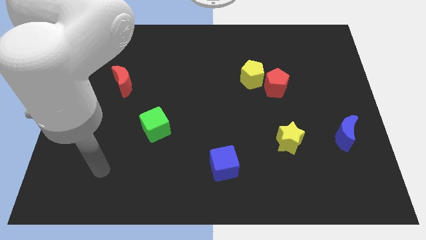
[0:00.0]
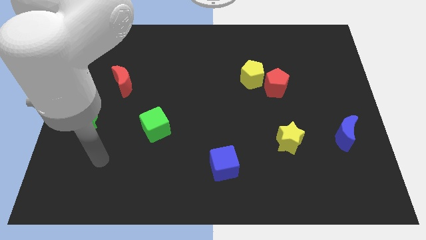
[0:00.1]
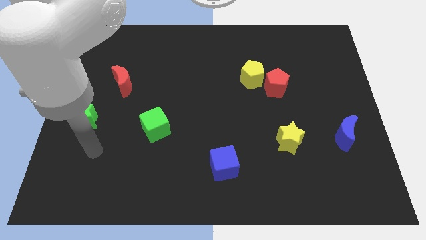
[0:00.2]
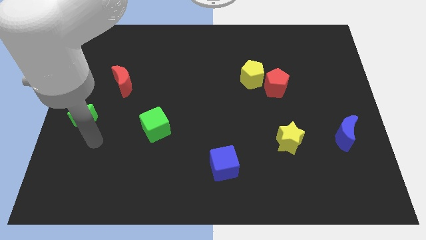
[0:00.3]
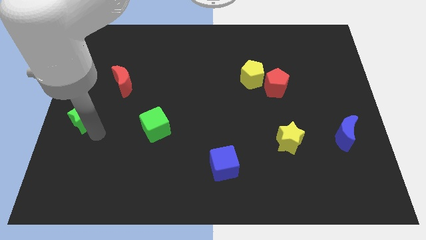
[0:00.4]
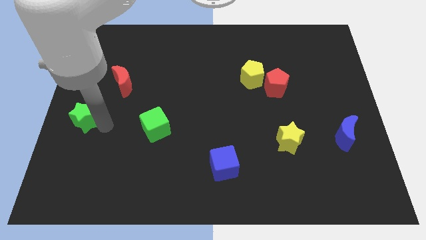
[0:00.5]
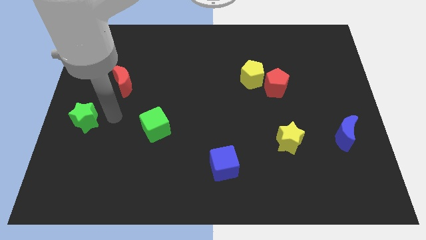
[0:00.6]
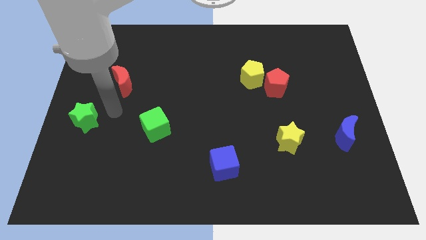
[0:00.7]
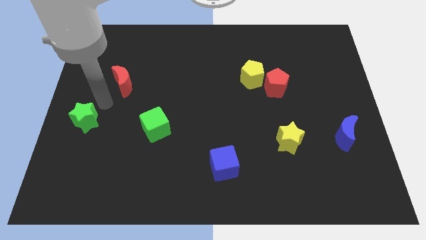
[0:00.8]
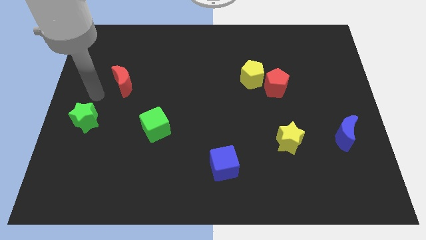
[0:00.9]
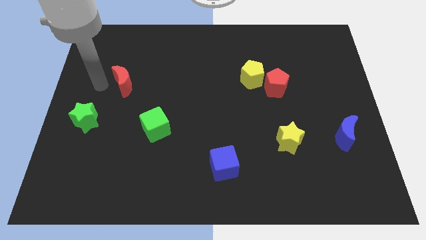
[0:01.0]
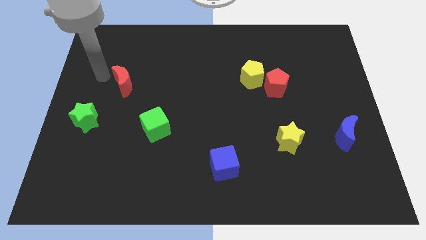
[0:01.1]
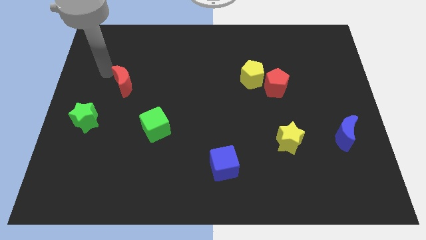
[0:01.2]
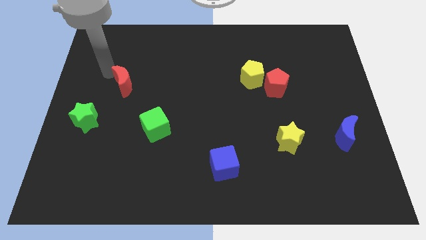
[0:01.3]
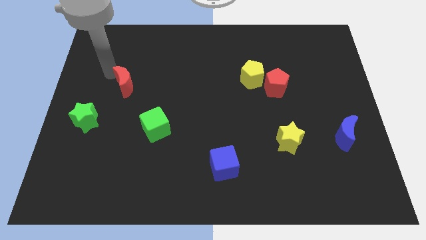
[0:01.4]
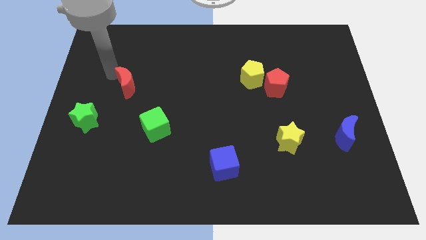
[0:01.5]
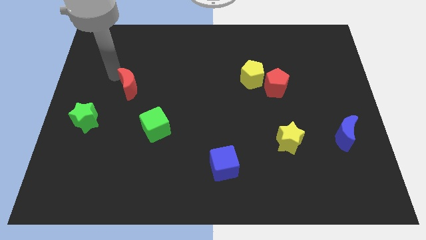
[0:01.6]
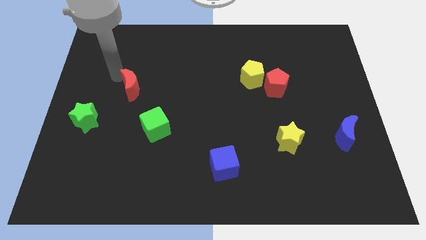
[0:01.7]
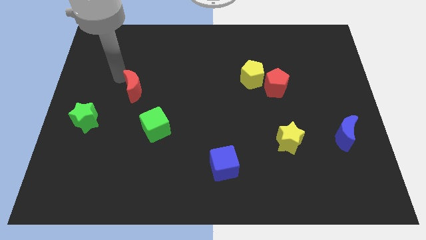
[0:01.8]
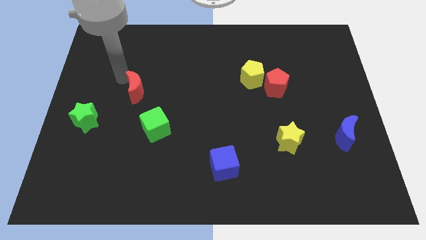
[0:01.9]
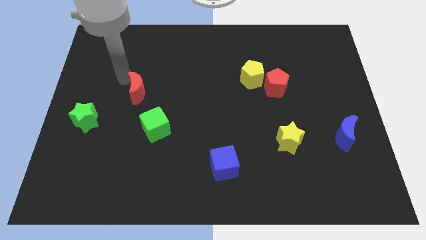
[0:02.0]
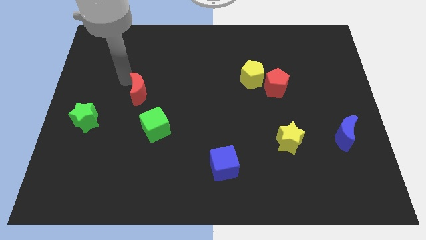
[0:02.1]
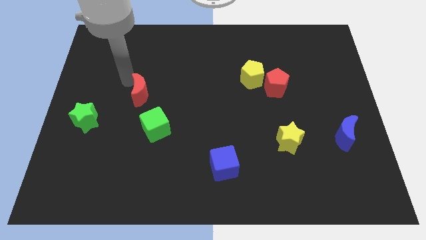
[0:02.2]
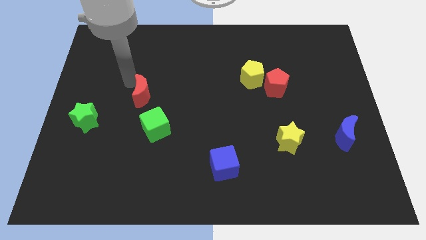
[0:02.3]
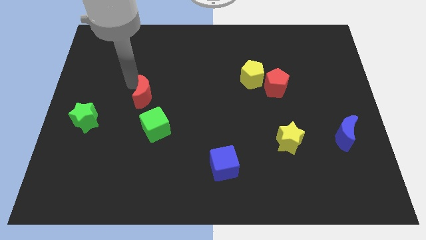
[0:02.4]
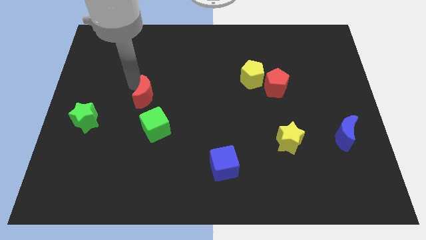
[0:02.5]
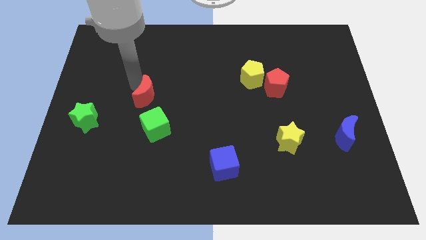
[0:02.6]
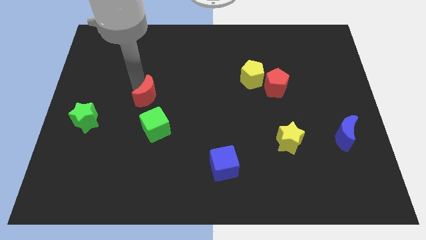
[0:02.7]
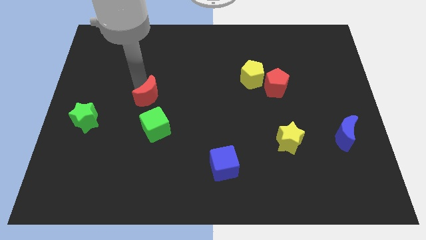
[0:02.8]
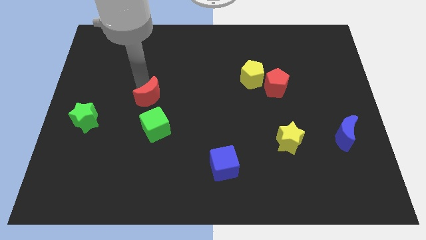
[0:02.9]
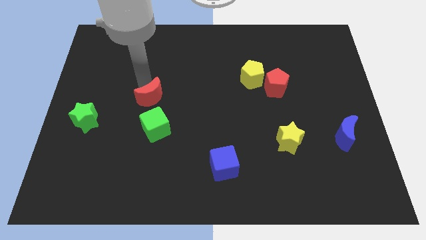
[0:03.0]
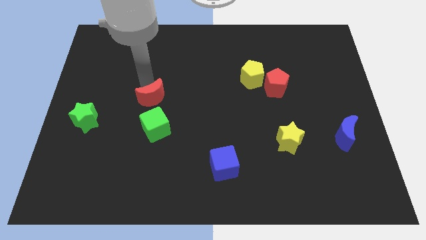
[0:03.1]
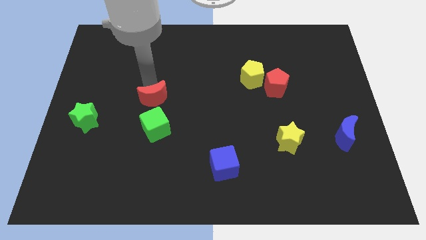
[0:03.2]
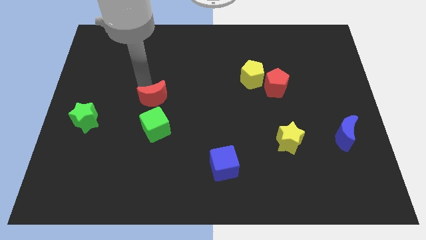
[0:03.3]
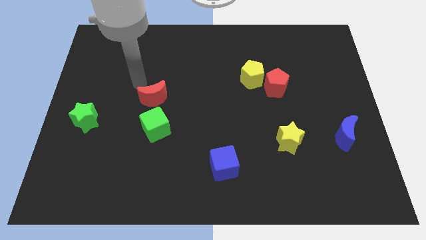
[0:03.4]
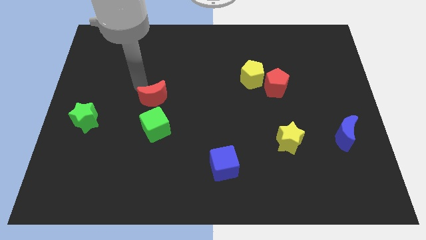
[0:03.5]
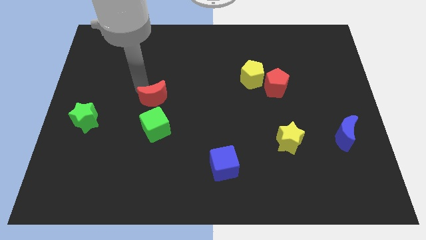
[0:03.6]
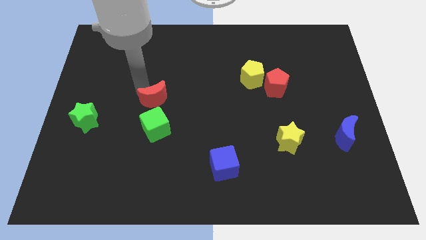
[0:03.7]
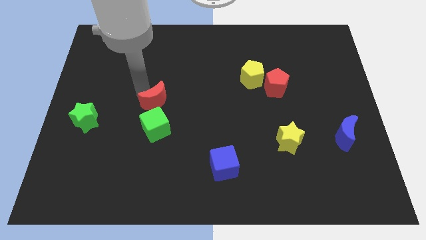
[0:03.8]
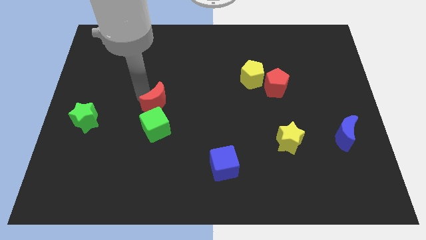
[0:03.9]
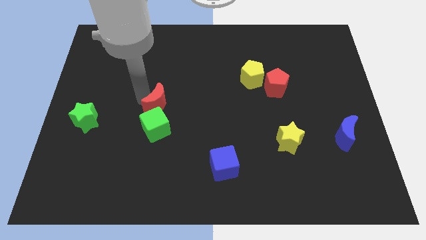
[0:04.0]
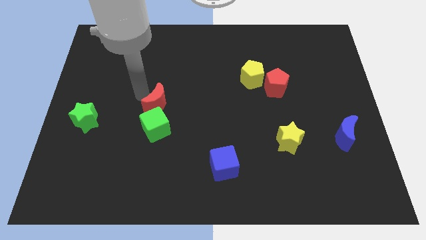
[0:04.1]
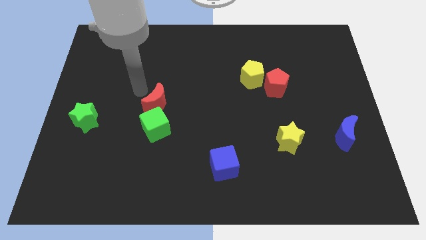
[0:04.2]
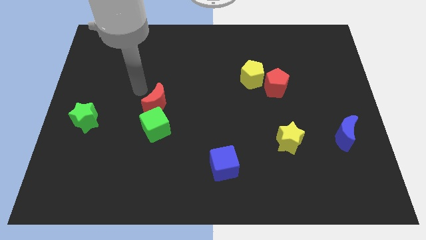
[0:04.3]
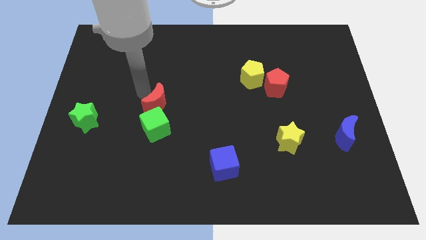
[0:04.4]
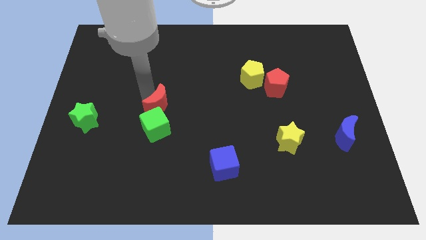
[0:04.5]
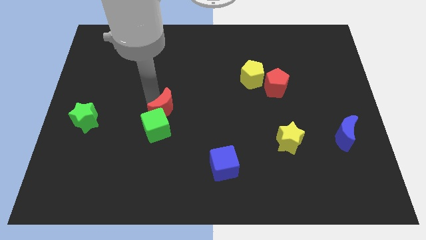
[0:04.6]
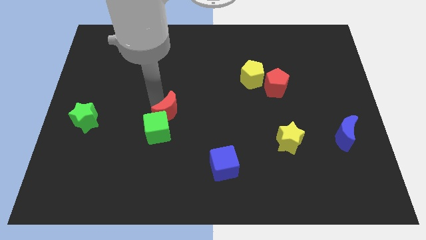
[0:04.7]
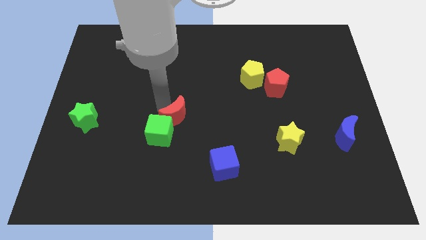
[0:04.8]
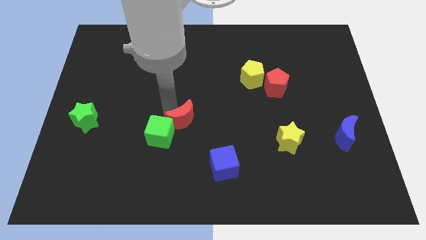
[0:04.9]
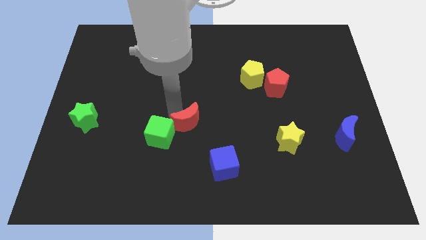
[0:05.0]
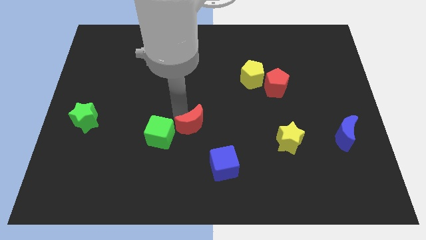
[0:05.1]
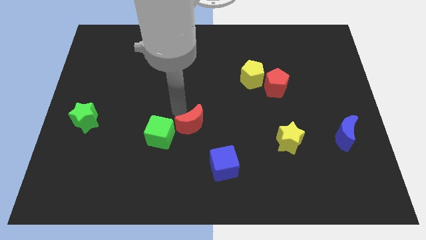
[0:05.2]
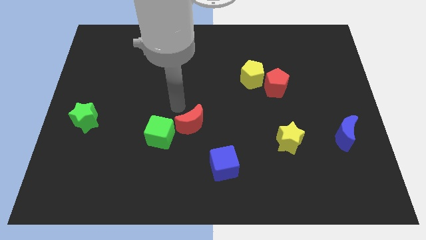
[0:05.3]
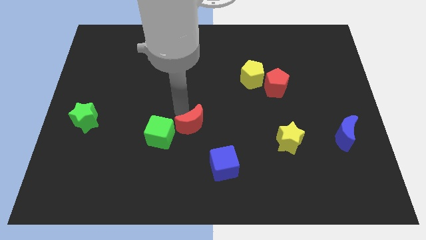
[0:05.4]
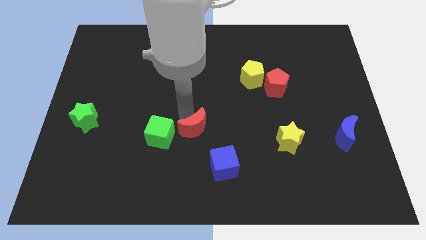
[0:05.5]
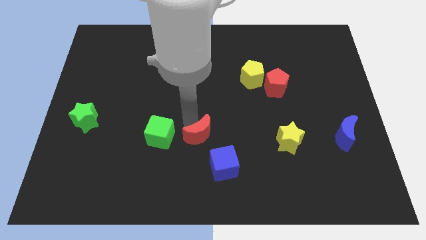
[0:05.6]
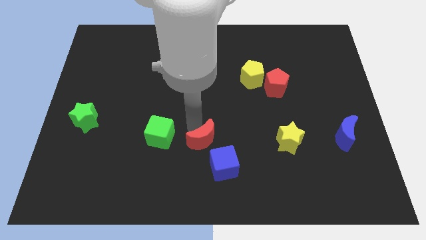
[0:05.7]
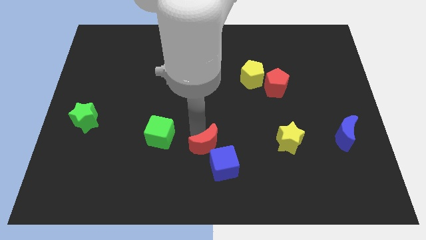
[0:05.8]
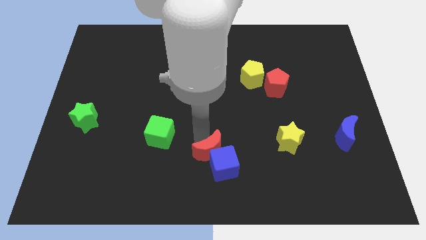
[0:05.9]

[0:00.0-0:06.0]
slide the red moon to the blue cube

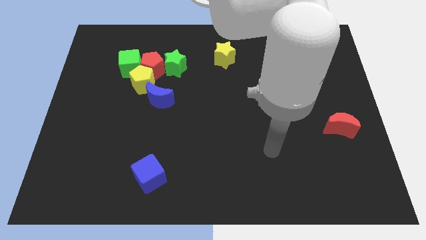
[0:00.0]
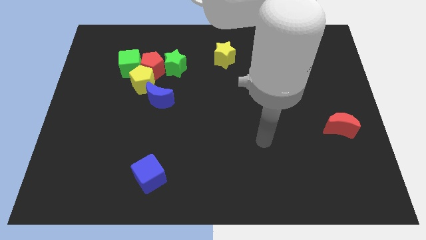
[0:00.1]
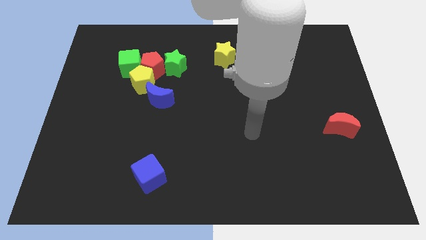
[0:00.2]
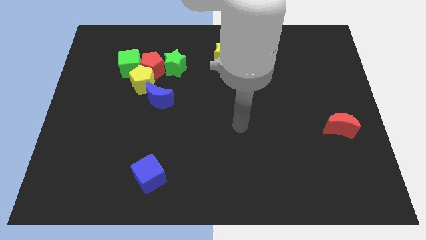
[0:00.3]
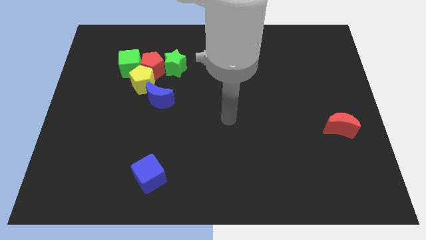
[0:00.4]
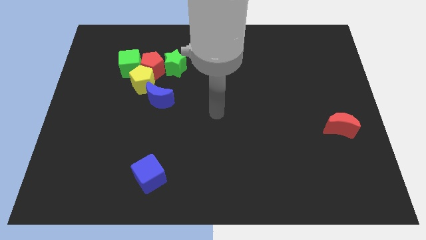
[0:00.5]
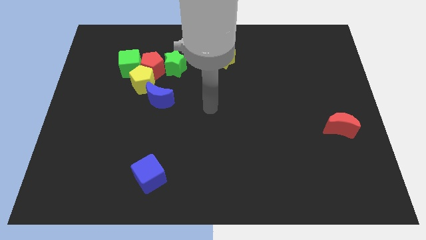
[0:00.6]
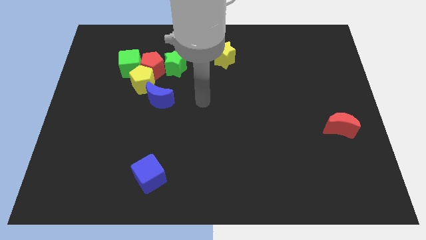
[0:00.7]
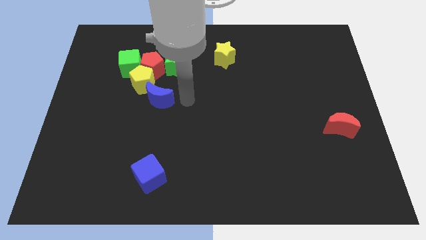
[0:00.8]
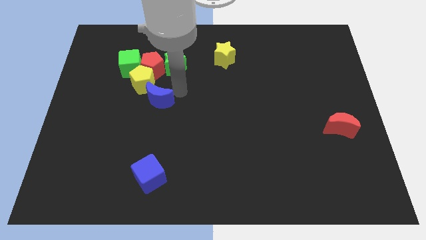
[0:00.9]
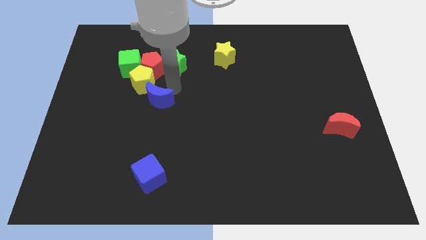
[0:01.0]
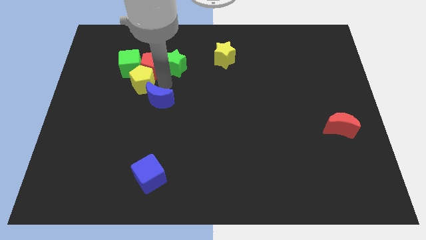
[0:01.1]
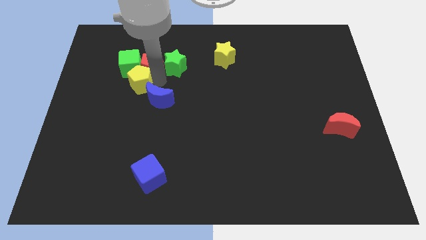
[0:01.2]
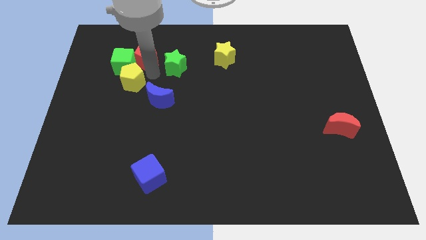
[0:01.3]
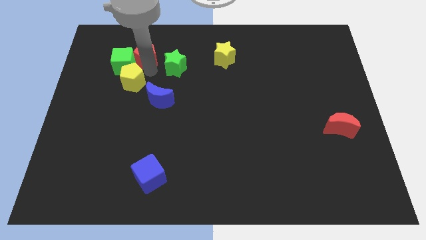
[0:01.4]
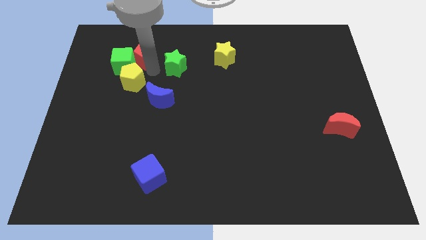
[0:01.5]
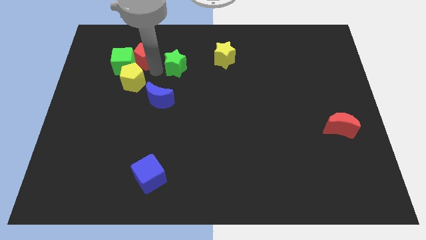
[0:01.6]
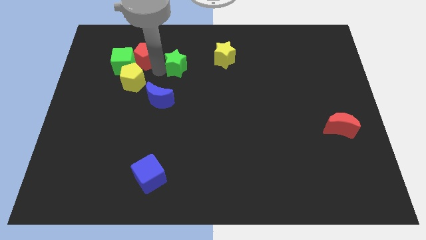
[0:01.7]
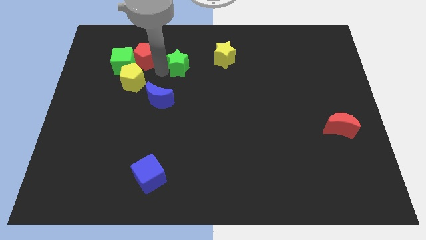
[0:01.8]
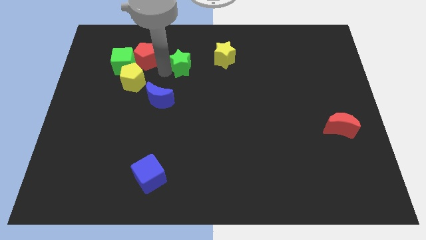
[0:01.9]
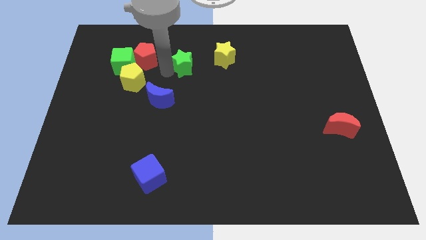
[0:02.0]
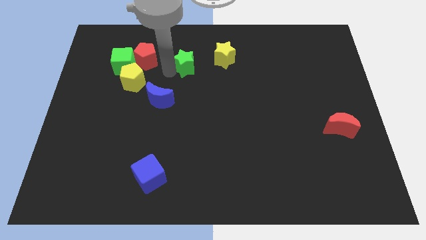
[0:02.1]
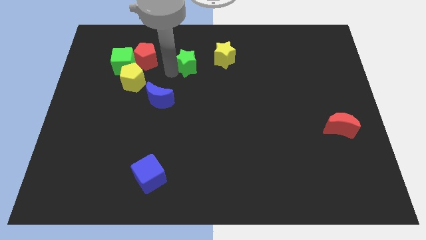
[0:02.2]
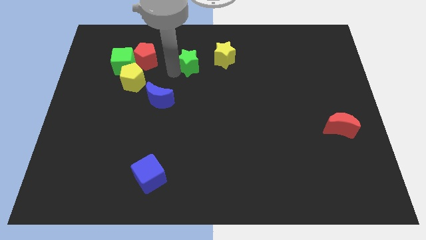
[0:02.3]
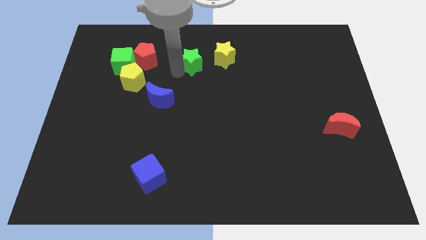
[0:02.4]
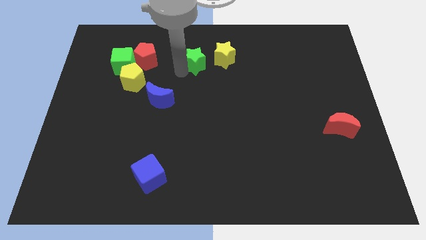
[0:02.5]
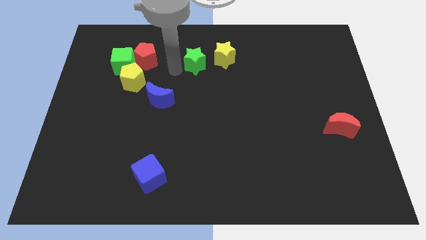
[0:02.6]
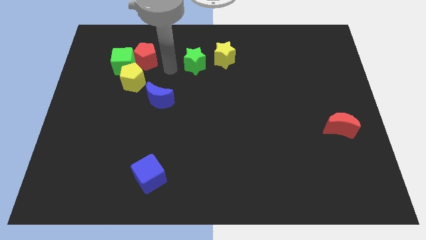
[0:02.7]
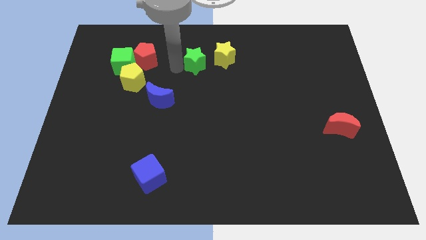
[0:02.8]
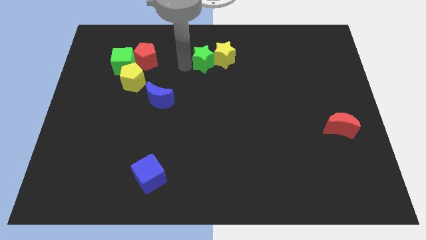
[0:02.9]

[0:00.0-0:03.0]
push the green star towards the yellow star
